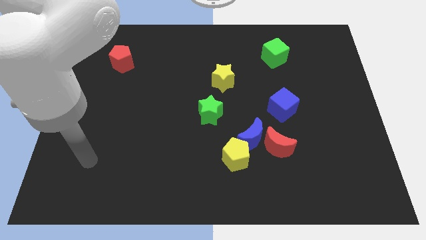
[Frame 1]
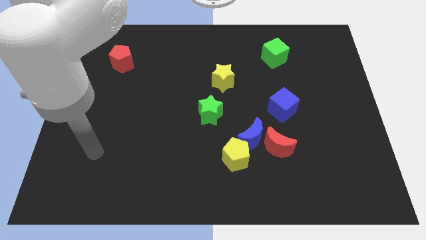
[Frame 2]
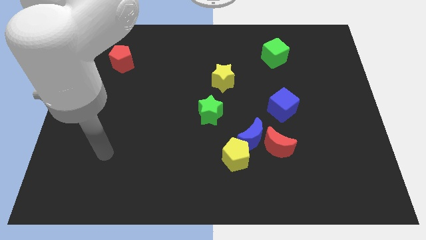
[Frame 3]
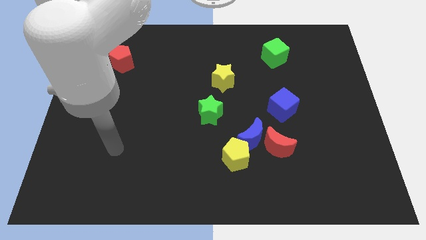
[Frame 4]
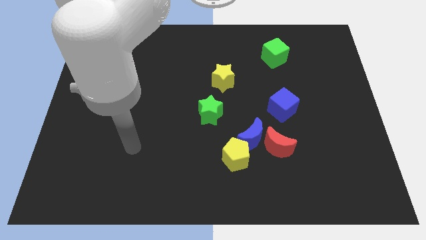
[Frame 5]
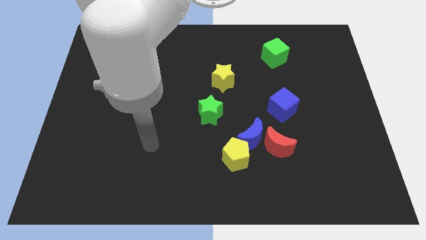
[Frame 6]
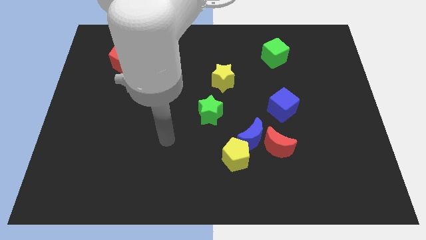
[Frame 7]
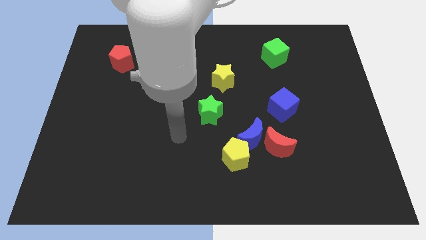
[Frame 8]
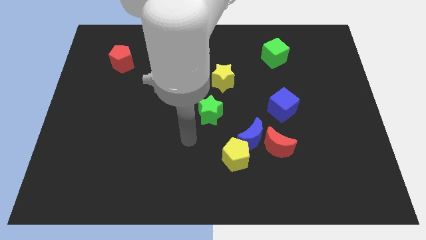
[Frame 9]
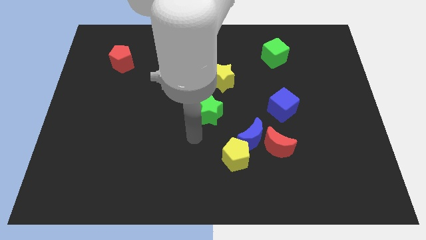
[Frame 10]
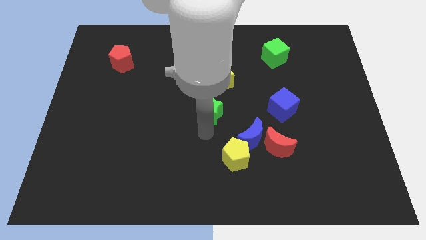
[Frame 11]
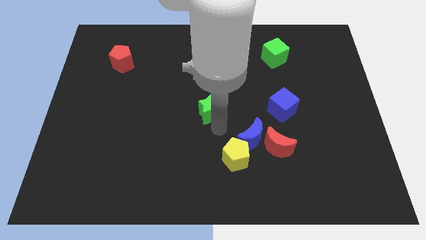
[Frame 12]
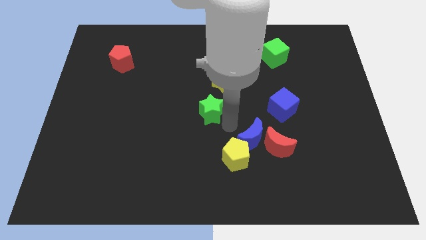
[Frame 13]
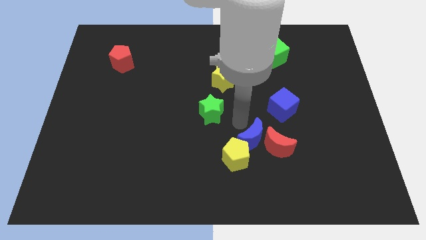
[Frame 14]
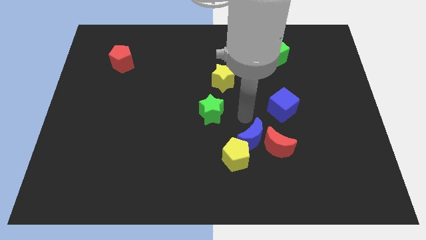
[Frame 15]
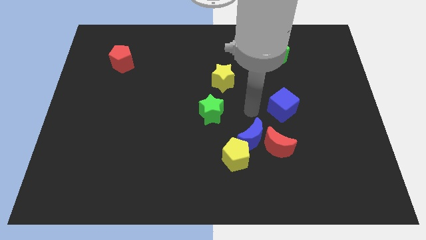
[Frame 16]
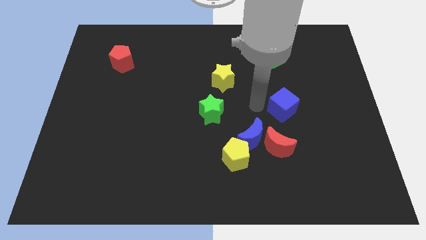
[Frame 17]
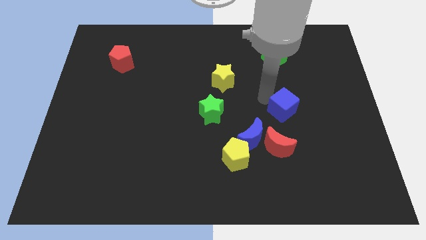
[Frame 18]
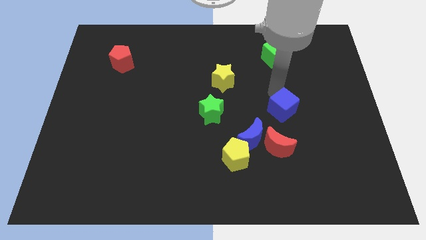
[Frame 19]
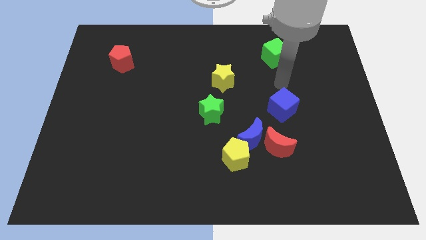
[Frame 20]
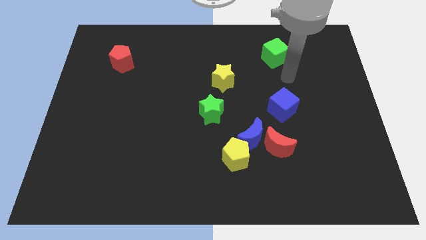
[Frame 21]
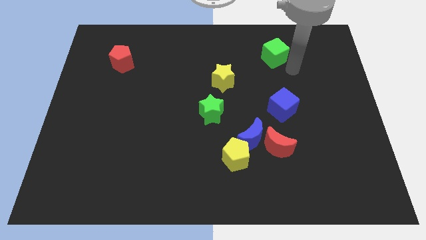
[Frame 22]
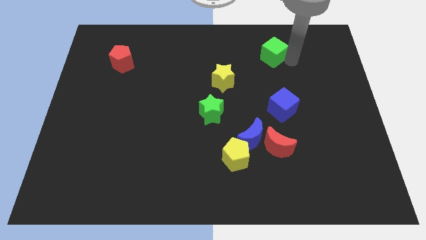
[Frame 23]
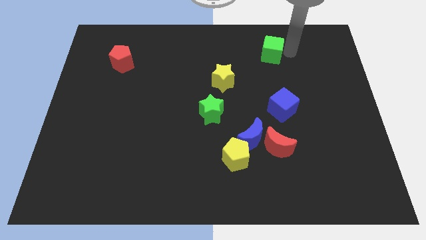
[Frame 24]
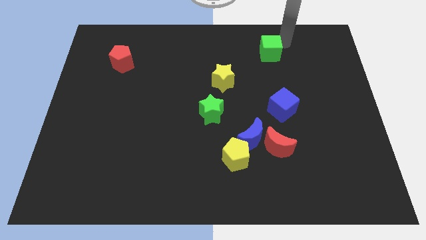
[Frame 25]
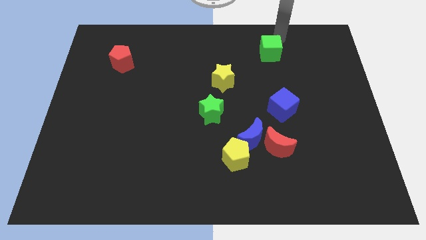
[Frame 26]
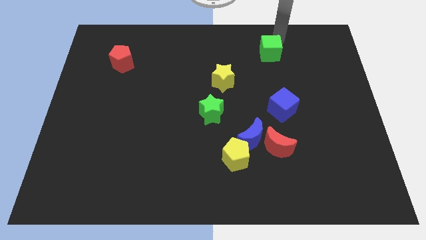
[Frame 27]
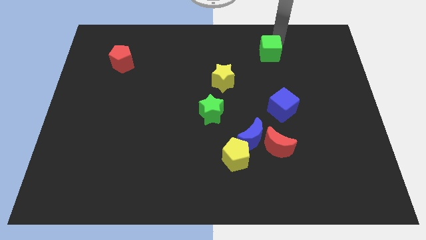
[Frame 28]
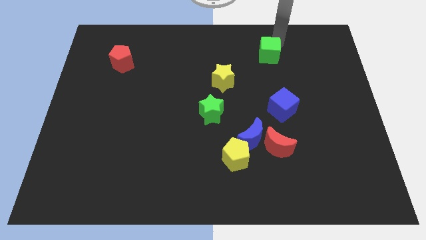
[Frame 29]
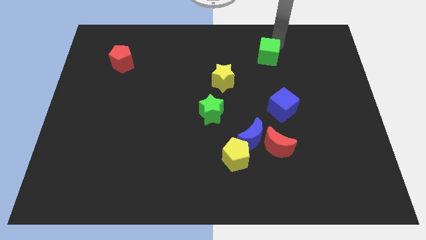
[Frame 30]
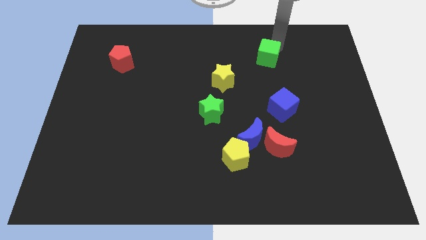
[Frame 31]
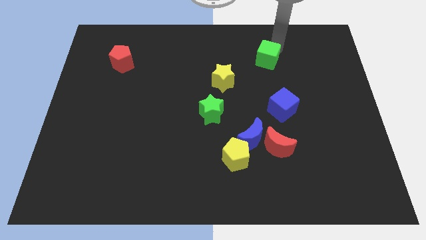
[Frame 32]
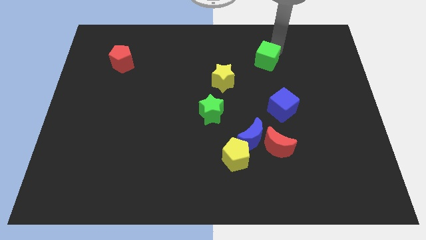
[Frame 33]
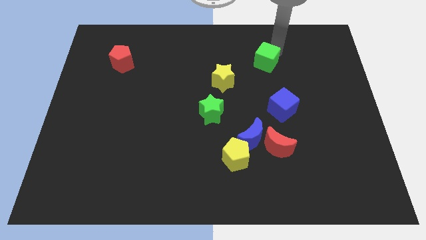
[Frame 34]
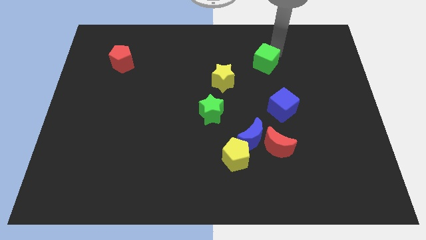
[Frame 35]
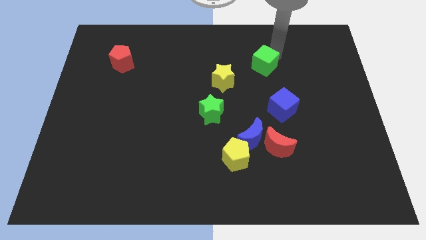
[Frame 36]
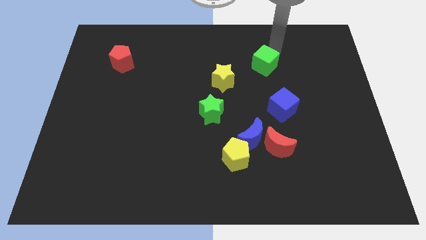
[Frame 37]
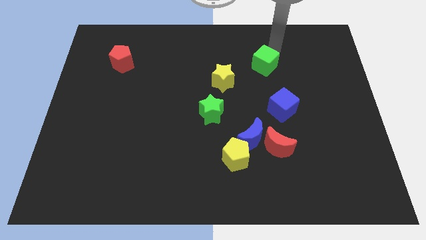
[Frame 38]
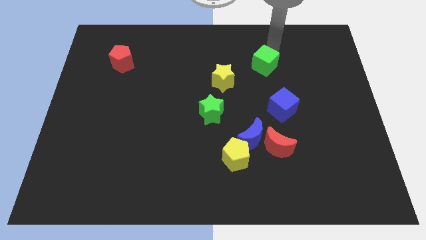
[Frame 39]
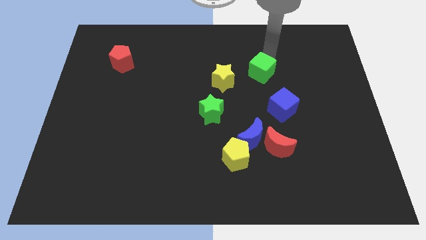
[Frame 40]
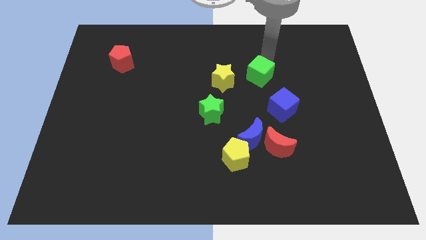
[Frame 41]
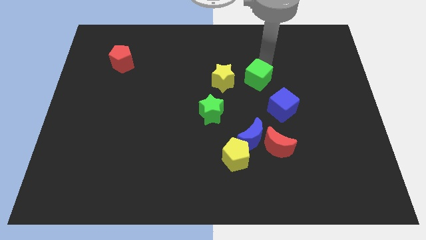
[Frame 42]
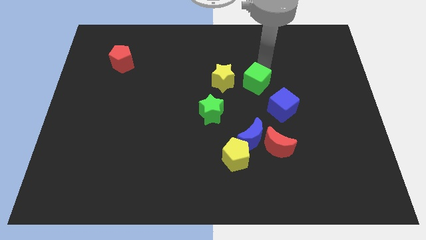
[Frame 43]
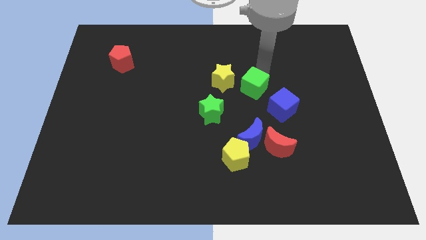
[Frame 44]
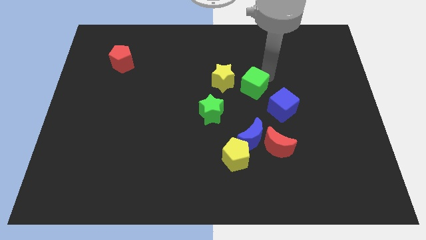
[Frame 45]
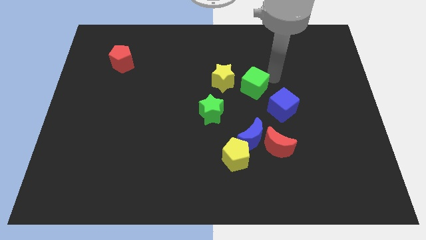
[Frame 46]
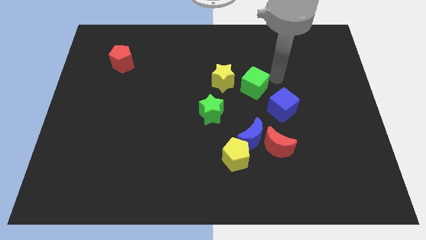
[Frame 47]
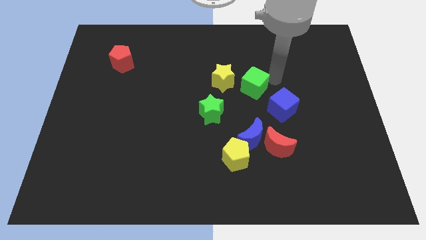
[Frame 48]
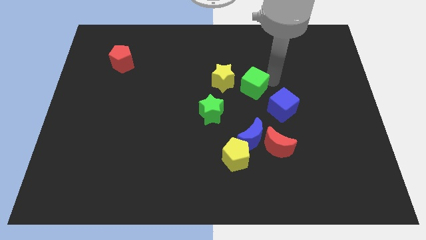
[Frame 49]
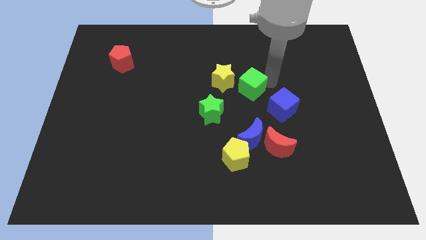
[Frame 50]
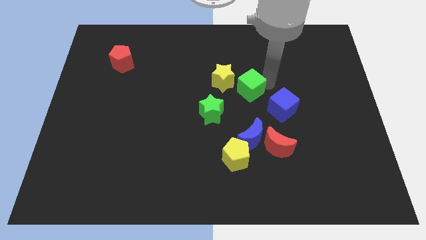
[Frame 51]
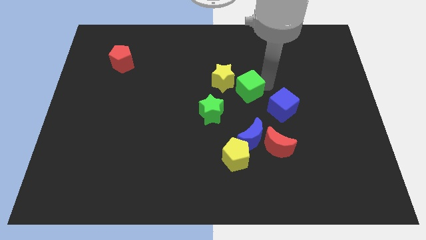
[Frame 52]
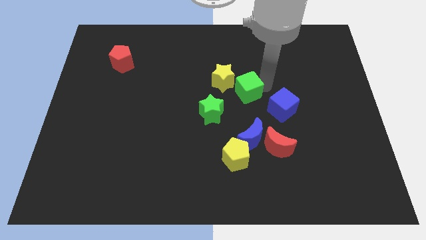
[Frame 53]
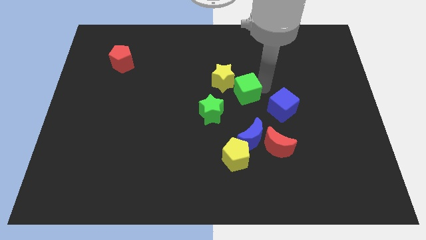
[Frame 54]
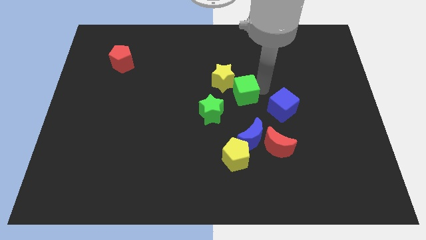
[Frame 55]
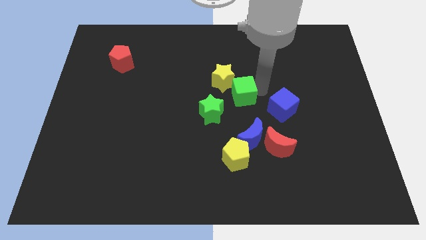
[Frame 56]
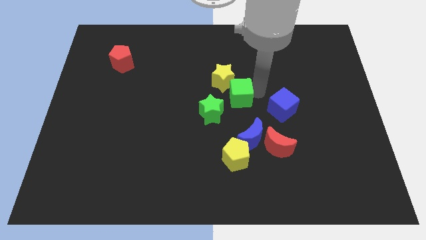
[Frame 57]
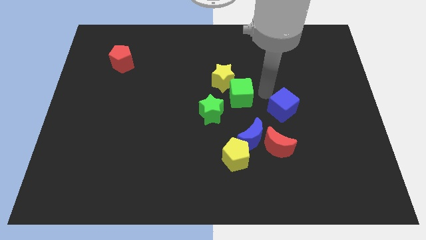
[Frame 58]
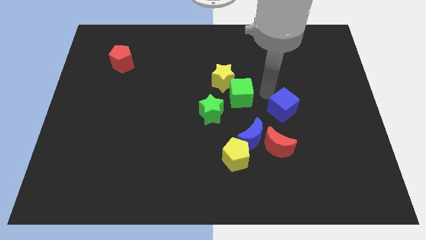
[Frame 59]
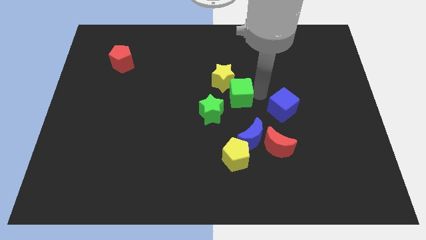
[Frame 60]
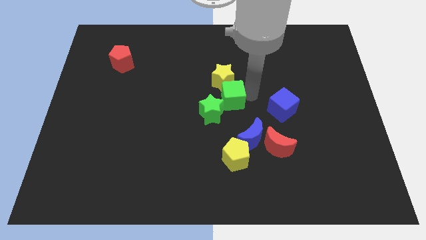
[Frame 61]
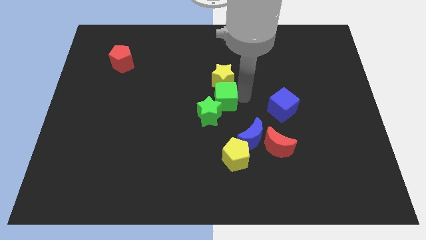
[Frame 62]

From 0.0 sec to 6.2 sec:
push the green cube diagonally downwards and to the left

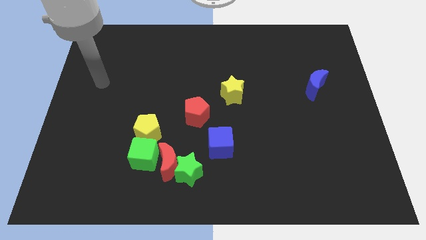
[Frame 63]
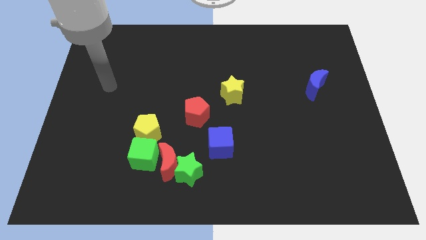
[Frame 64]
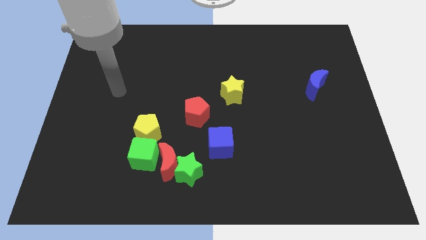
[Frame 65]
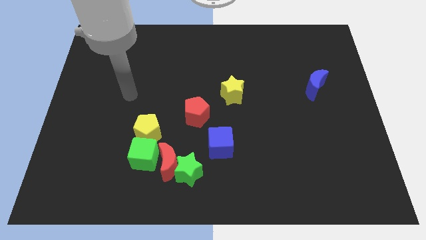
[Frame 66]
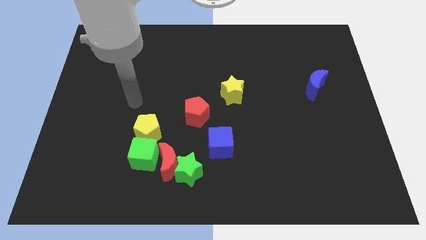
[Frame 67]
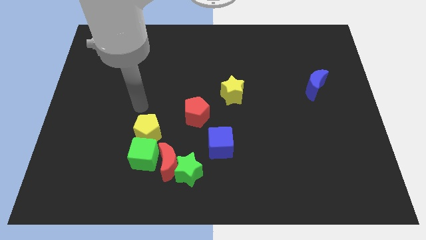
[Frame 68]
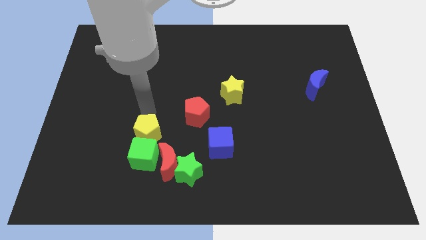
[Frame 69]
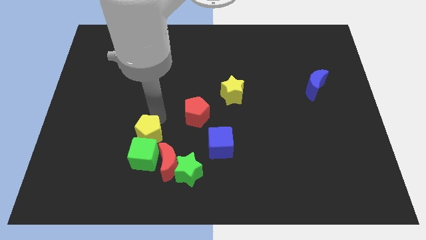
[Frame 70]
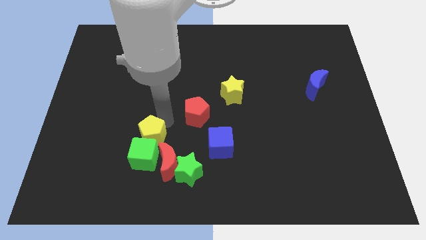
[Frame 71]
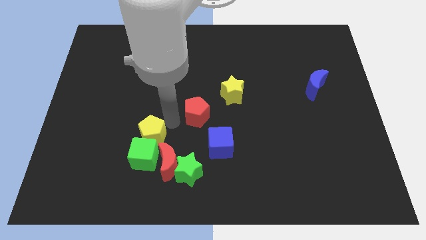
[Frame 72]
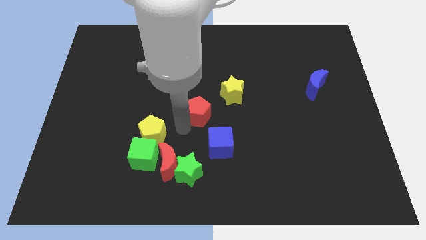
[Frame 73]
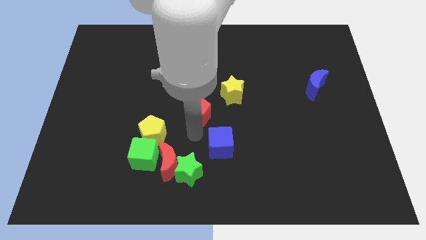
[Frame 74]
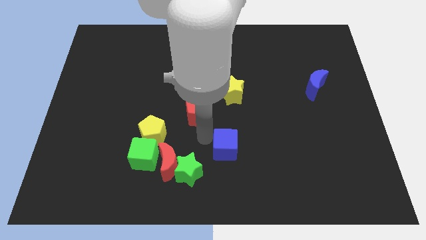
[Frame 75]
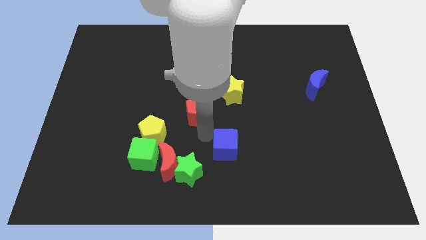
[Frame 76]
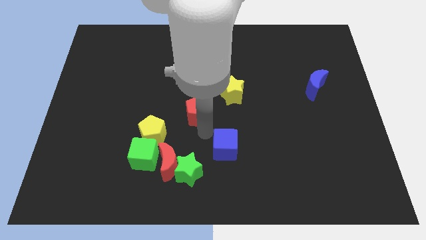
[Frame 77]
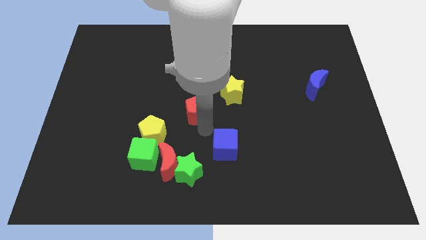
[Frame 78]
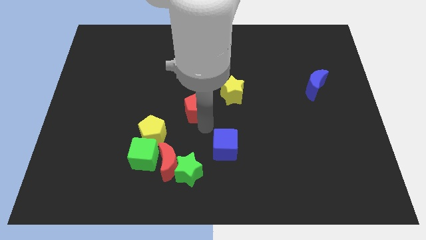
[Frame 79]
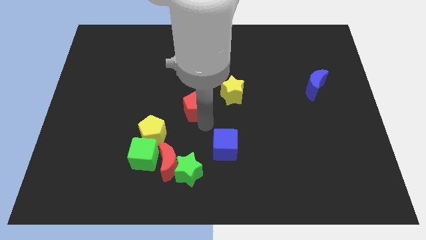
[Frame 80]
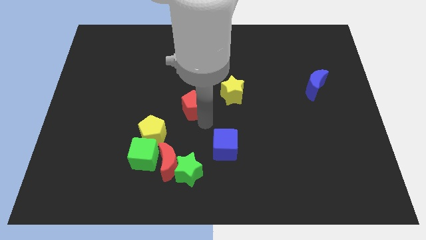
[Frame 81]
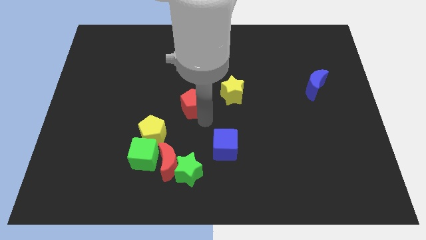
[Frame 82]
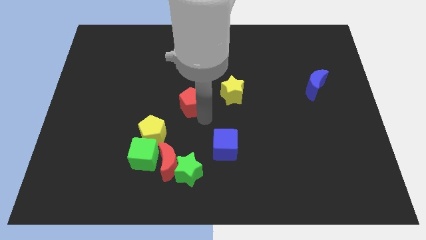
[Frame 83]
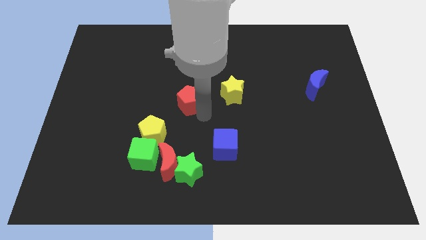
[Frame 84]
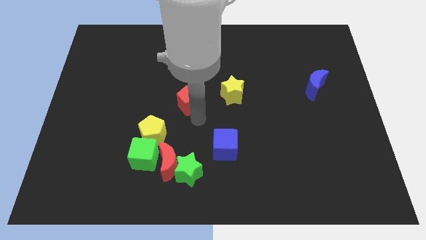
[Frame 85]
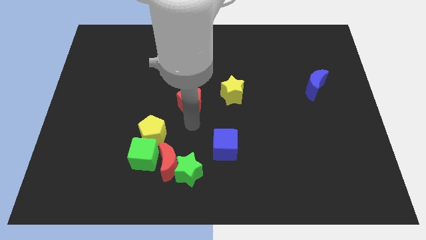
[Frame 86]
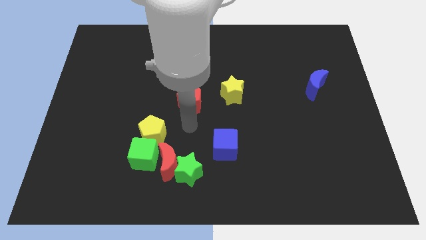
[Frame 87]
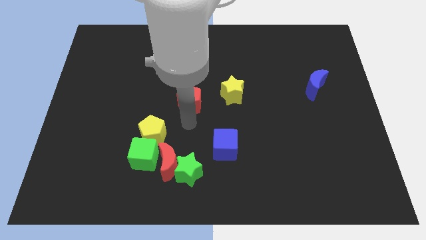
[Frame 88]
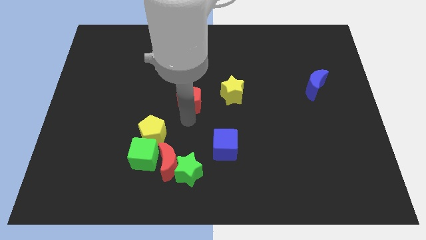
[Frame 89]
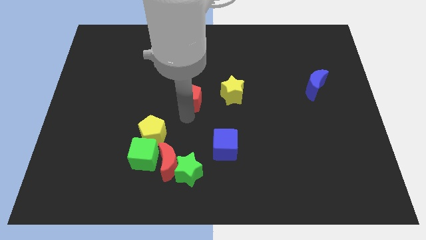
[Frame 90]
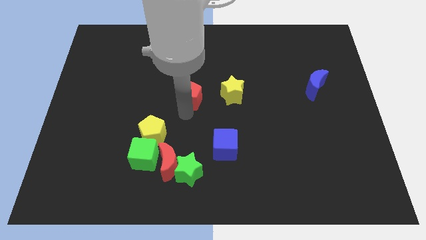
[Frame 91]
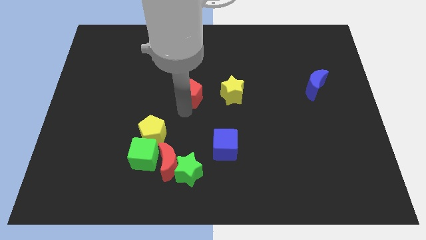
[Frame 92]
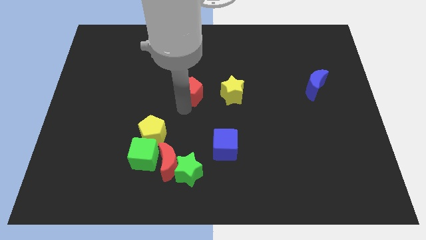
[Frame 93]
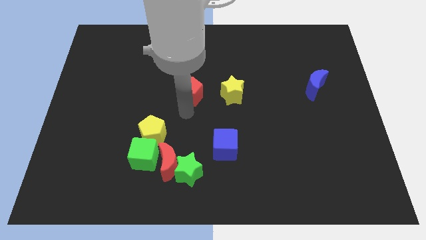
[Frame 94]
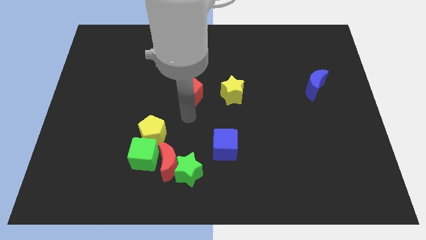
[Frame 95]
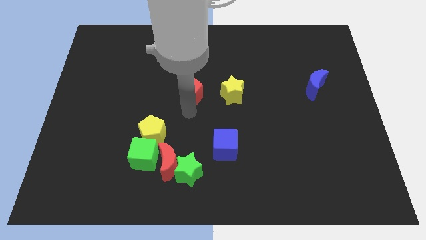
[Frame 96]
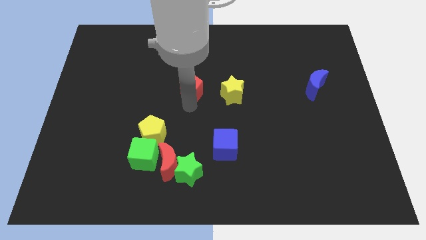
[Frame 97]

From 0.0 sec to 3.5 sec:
push the red pentagon upwards somewhat
